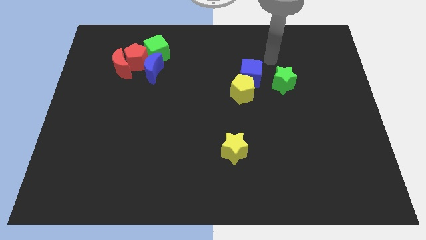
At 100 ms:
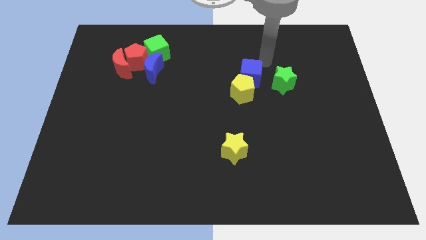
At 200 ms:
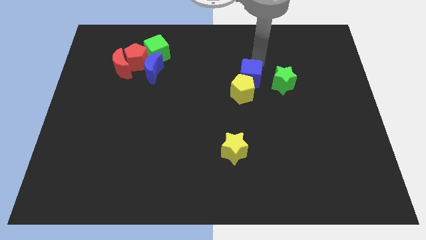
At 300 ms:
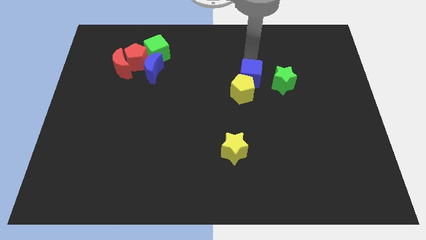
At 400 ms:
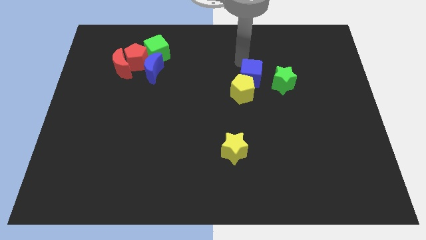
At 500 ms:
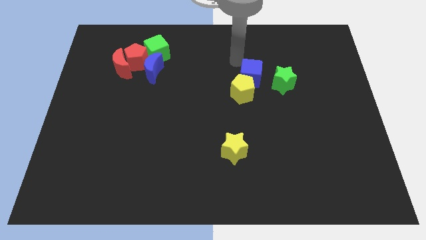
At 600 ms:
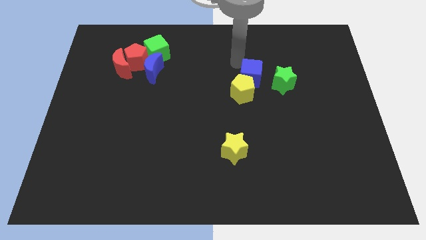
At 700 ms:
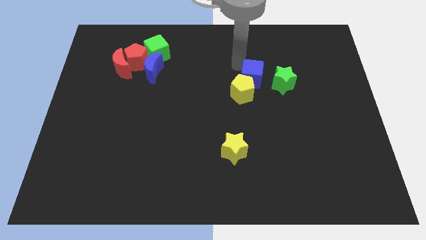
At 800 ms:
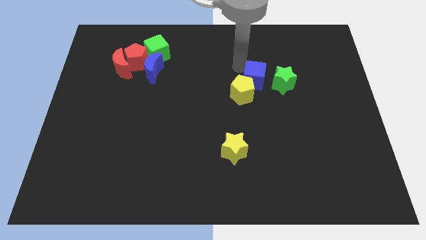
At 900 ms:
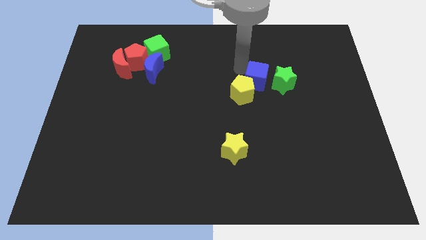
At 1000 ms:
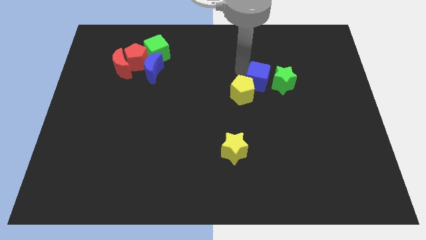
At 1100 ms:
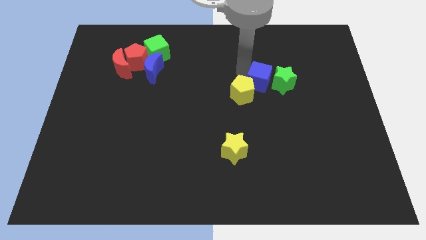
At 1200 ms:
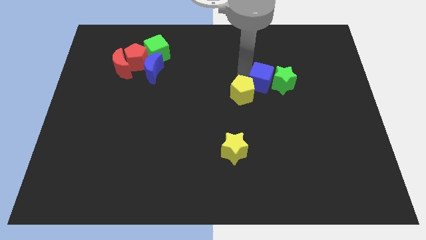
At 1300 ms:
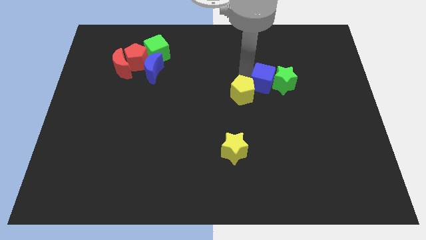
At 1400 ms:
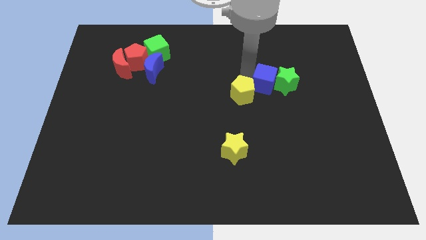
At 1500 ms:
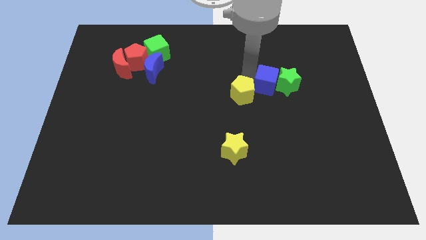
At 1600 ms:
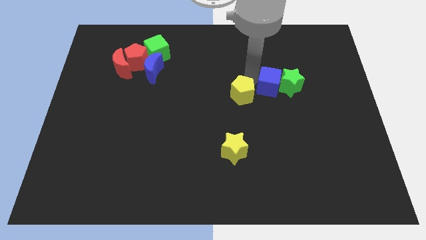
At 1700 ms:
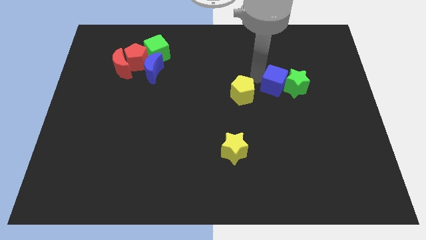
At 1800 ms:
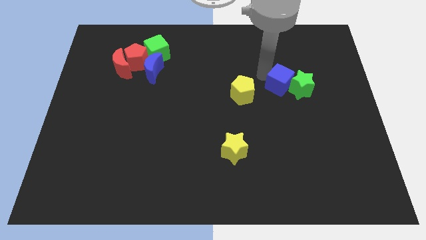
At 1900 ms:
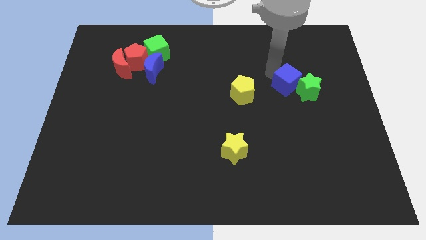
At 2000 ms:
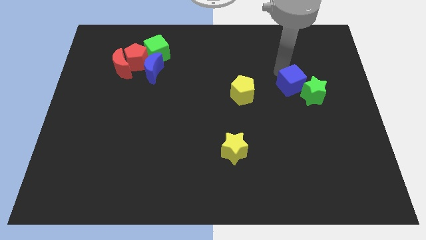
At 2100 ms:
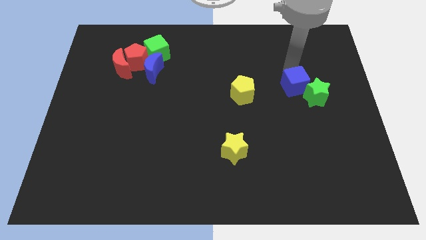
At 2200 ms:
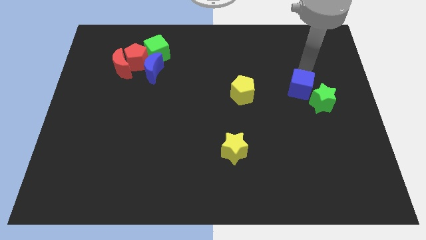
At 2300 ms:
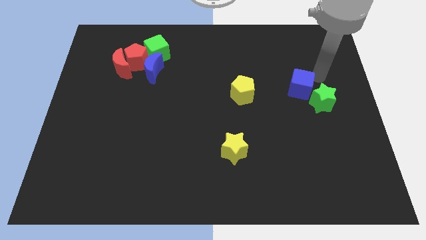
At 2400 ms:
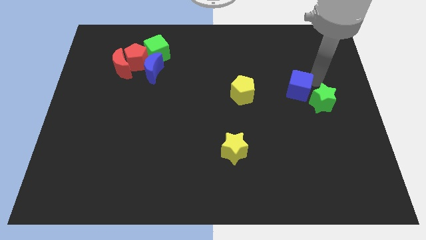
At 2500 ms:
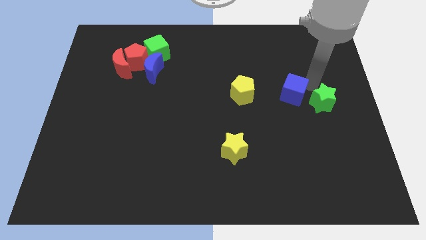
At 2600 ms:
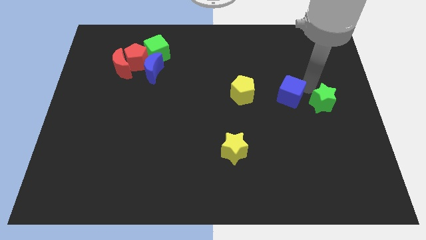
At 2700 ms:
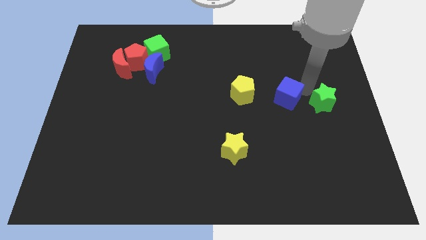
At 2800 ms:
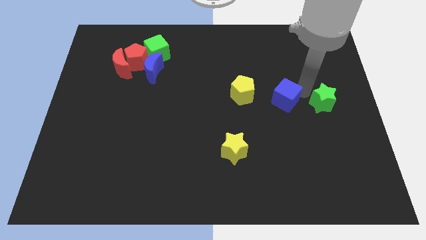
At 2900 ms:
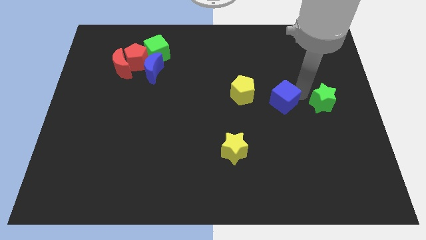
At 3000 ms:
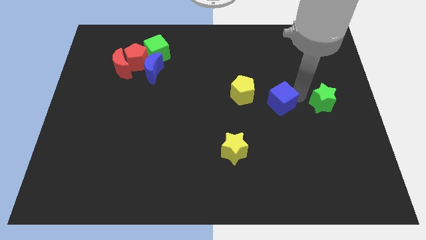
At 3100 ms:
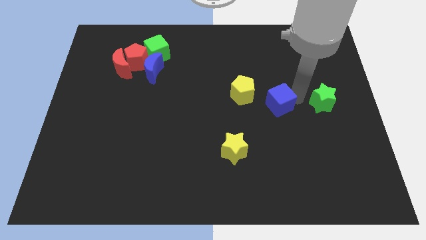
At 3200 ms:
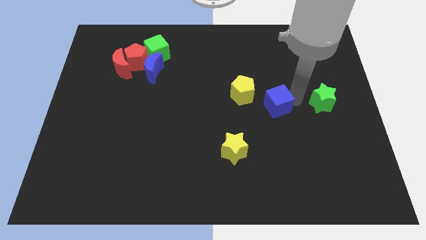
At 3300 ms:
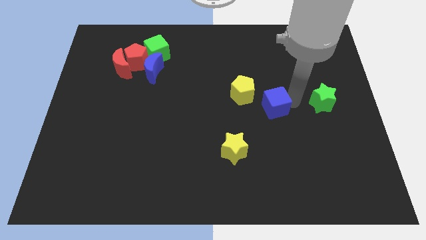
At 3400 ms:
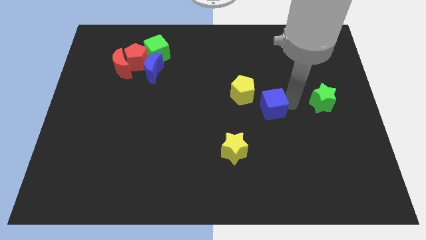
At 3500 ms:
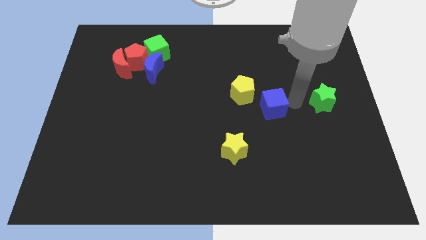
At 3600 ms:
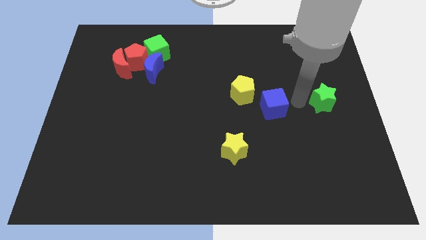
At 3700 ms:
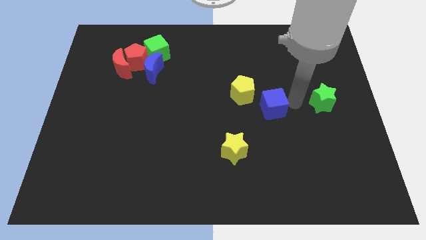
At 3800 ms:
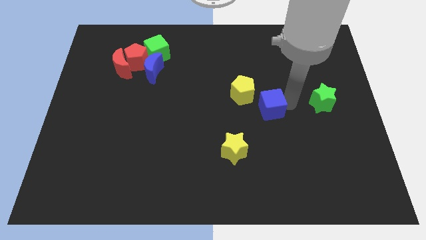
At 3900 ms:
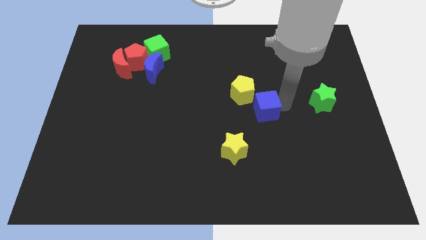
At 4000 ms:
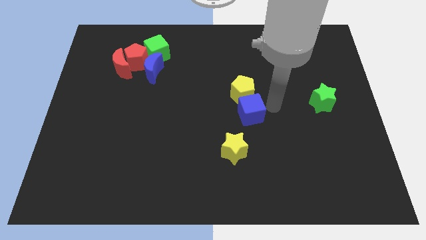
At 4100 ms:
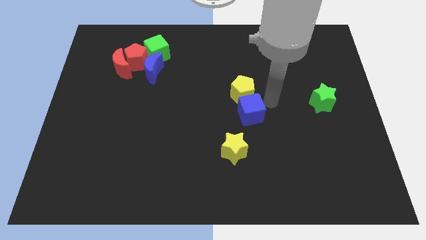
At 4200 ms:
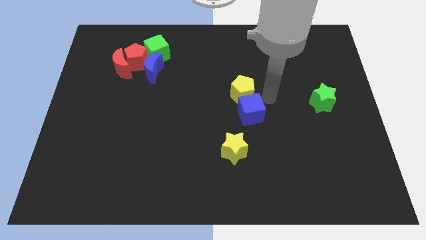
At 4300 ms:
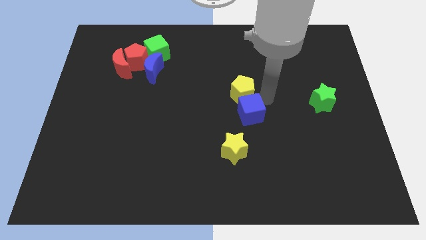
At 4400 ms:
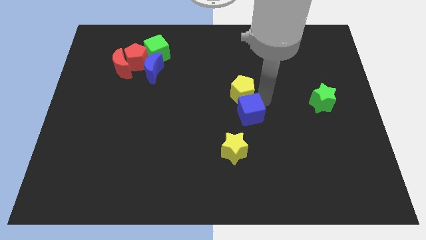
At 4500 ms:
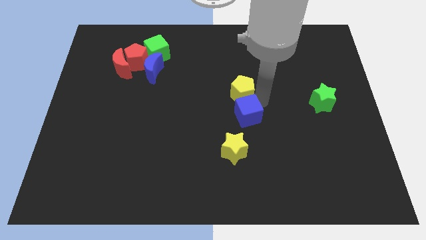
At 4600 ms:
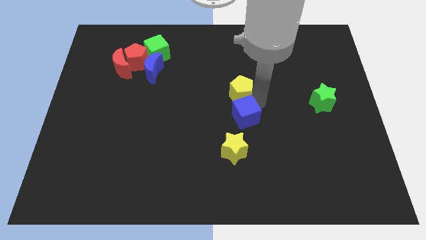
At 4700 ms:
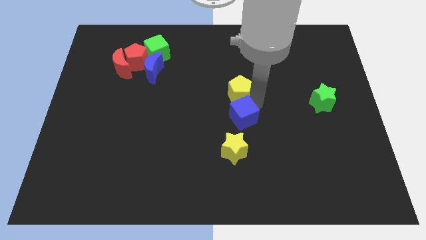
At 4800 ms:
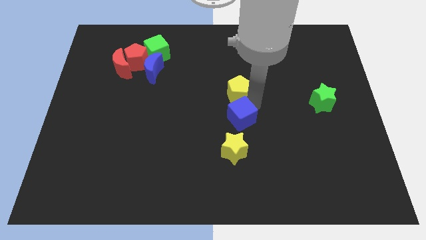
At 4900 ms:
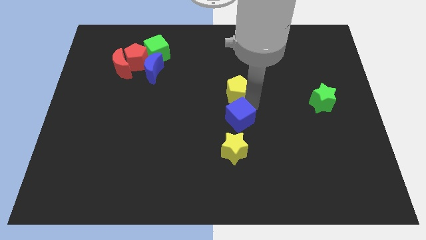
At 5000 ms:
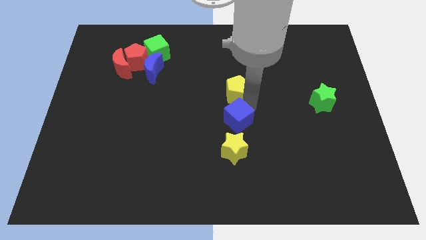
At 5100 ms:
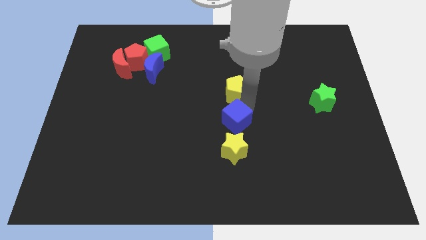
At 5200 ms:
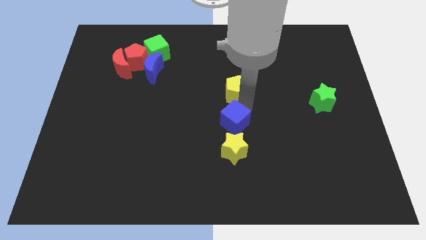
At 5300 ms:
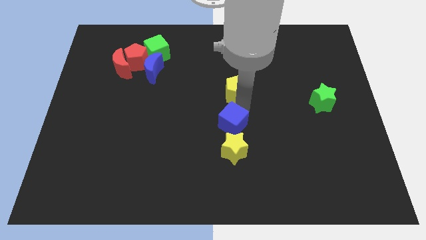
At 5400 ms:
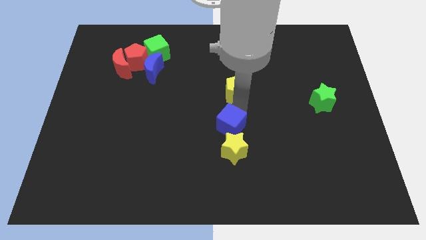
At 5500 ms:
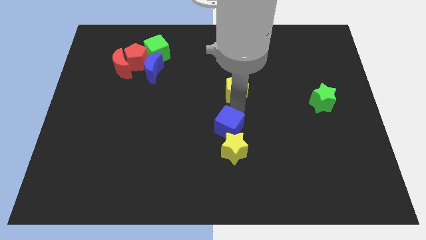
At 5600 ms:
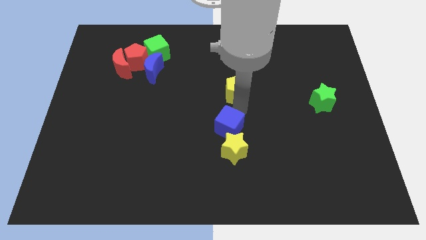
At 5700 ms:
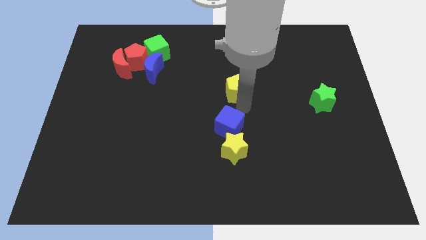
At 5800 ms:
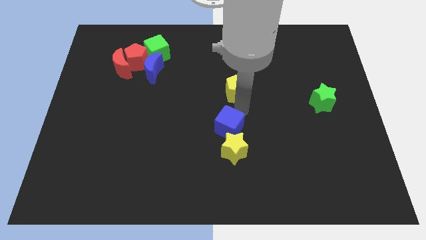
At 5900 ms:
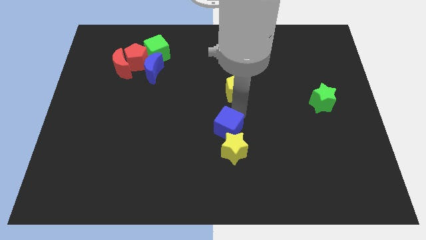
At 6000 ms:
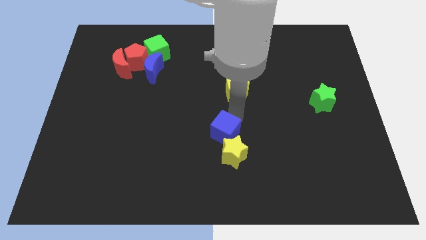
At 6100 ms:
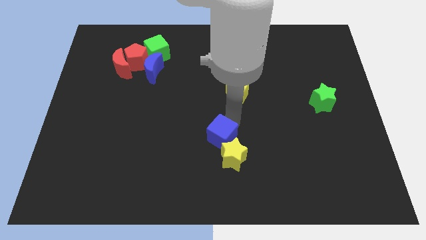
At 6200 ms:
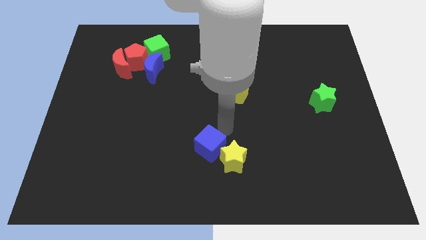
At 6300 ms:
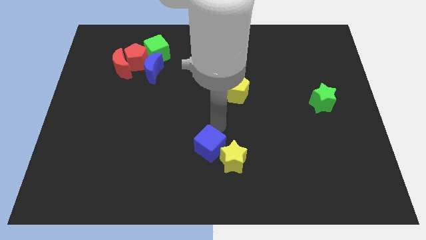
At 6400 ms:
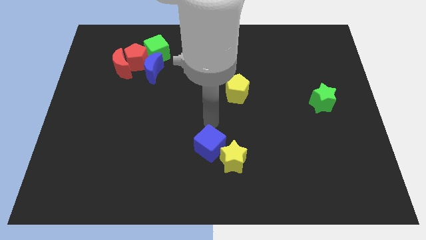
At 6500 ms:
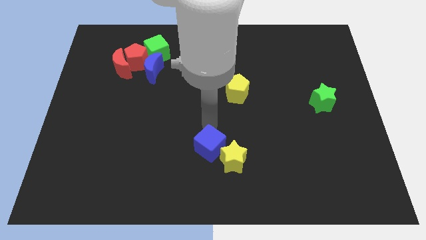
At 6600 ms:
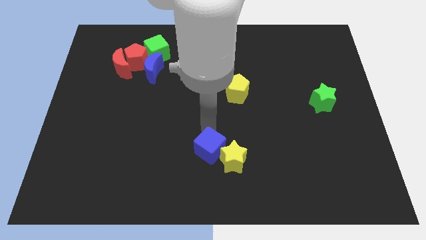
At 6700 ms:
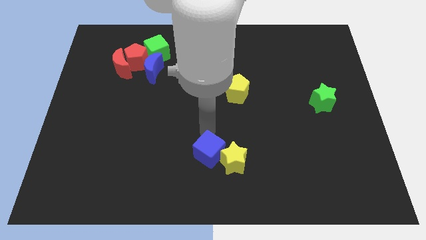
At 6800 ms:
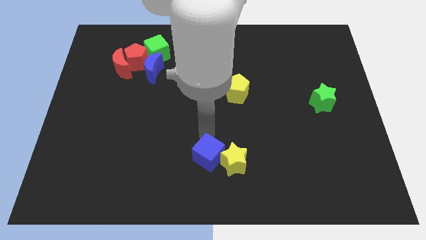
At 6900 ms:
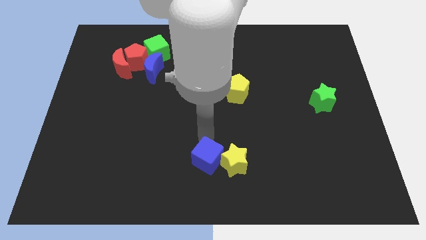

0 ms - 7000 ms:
slide the blue cube diagonally down and to the left of the yellow star

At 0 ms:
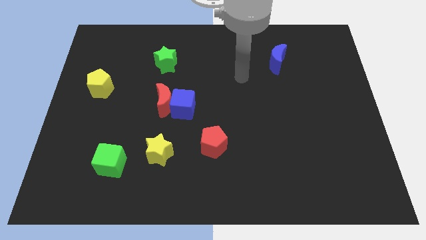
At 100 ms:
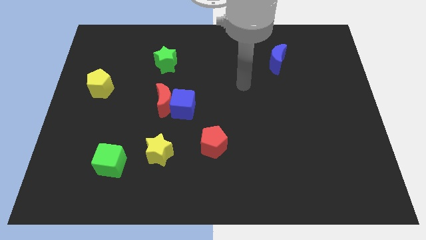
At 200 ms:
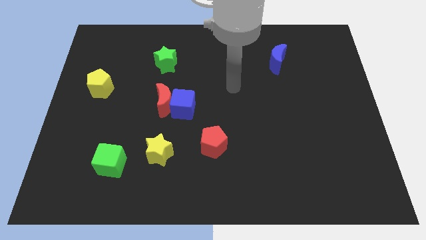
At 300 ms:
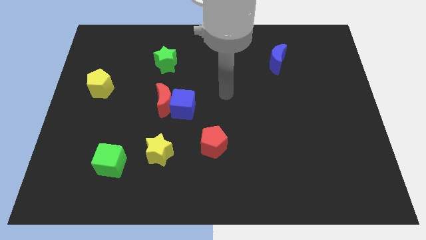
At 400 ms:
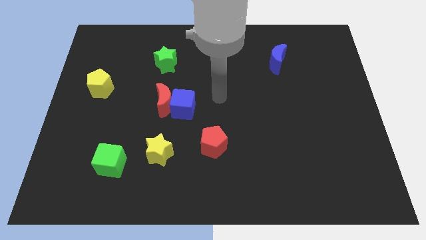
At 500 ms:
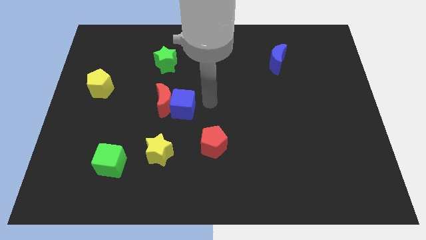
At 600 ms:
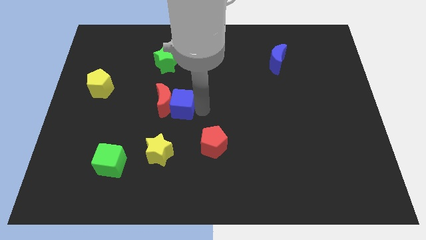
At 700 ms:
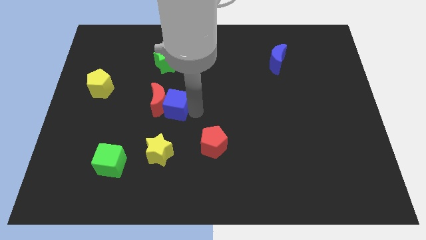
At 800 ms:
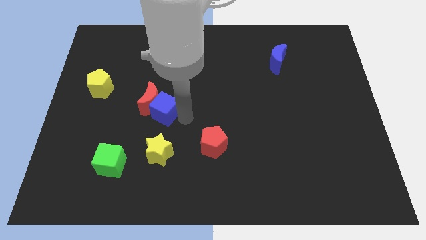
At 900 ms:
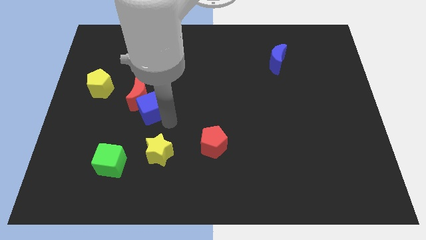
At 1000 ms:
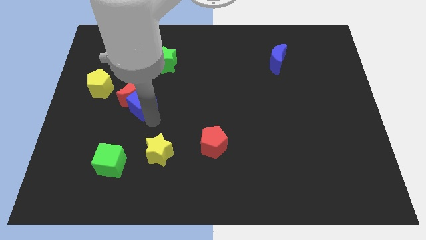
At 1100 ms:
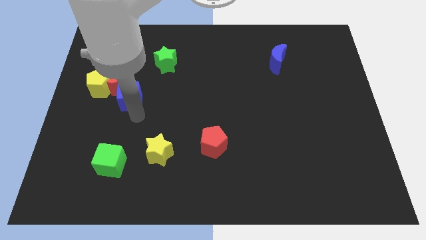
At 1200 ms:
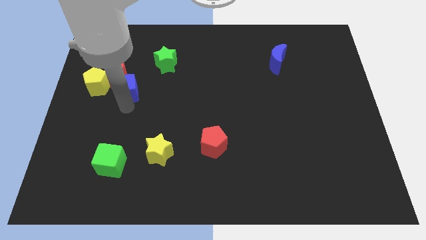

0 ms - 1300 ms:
slide the red moon to the left of the green star
